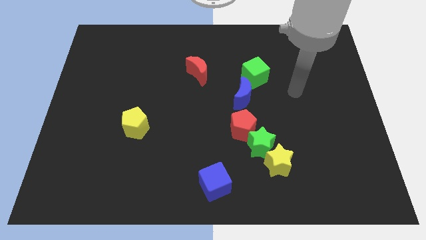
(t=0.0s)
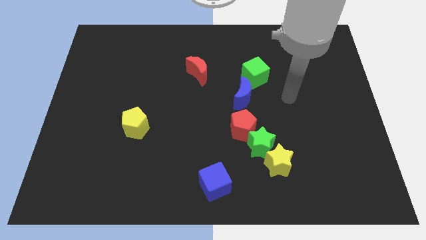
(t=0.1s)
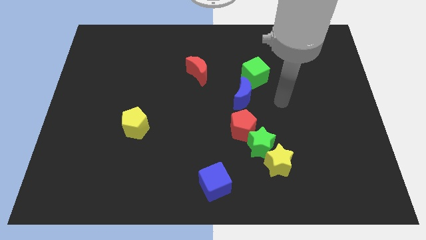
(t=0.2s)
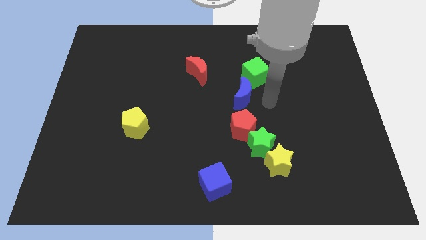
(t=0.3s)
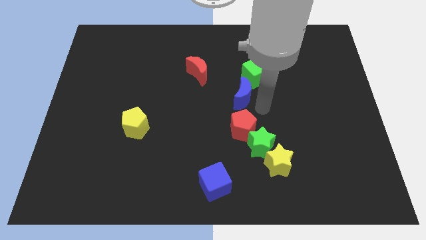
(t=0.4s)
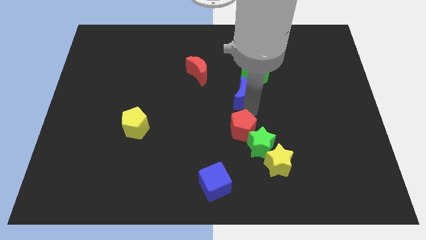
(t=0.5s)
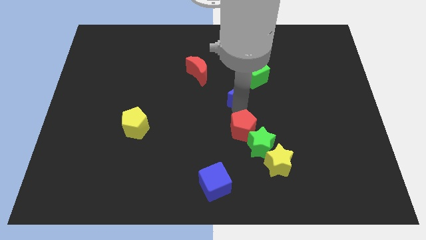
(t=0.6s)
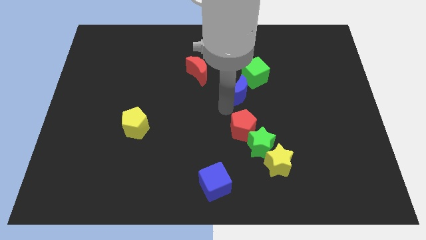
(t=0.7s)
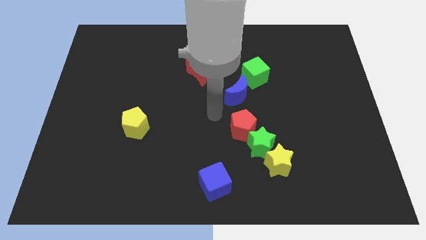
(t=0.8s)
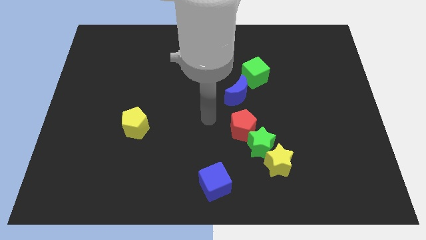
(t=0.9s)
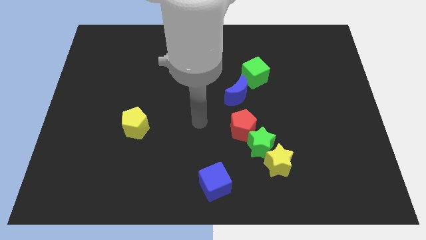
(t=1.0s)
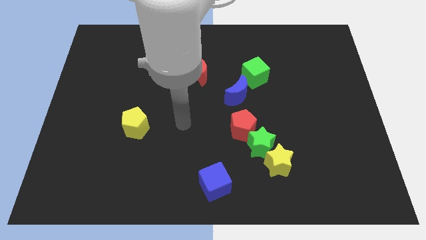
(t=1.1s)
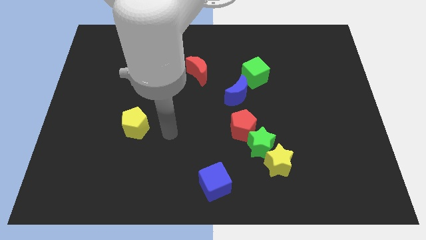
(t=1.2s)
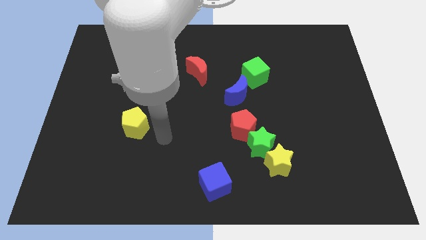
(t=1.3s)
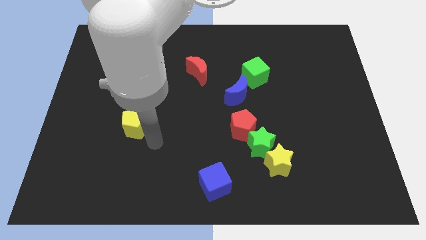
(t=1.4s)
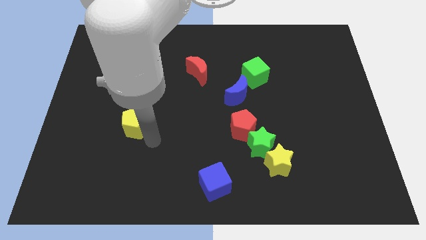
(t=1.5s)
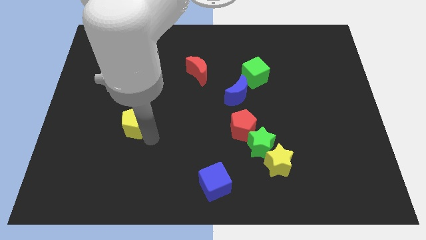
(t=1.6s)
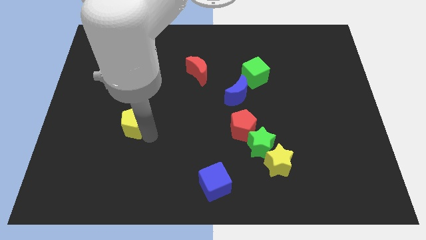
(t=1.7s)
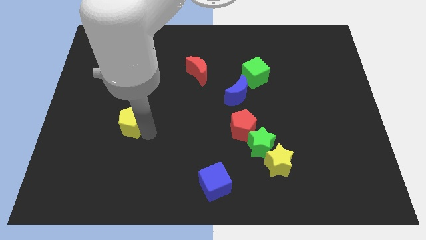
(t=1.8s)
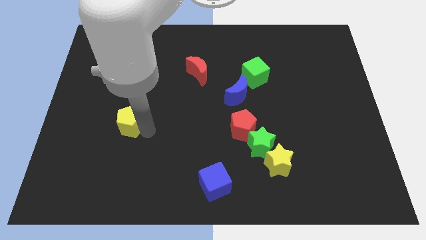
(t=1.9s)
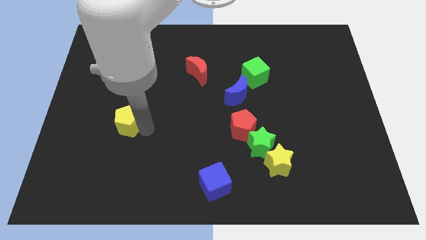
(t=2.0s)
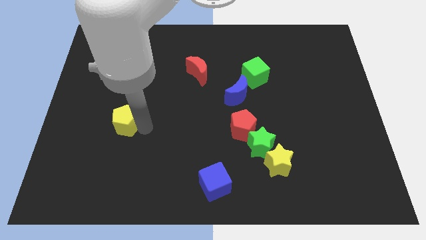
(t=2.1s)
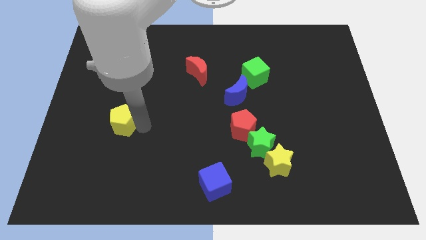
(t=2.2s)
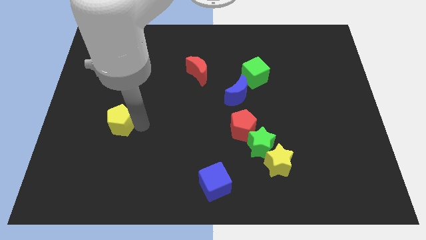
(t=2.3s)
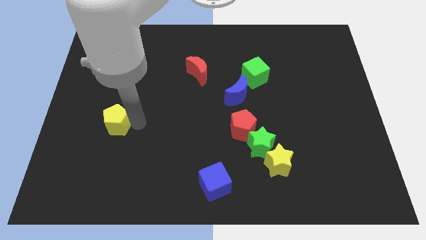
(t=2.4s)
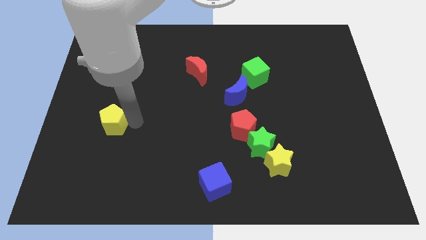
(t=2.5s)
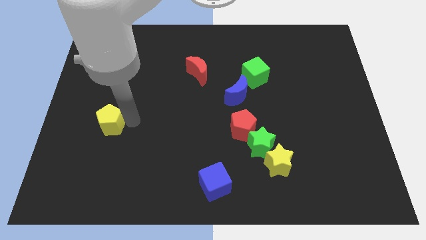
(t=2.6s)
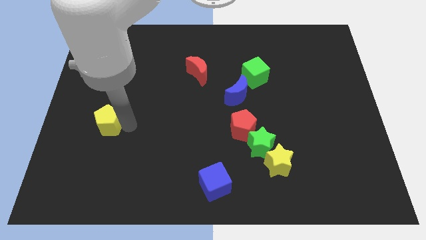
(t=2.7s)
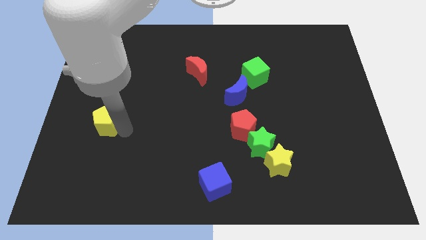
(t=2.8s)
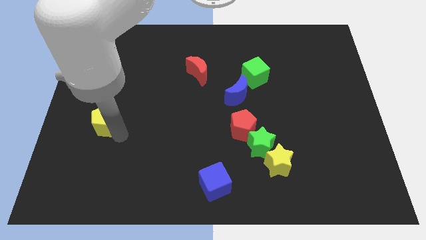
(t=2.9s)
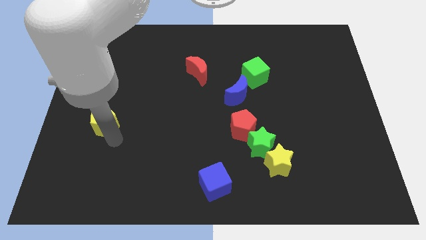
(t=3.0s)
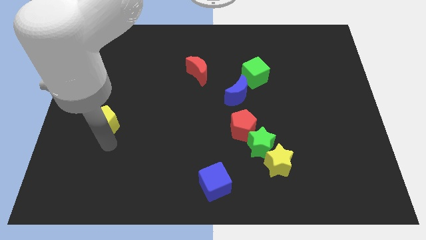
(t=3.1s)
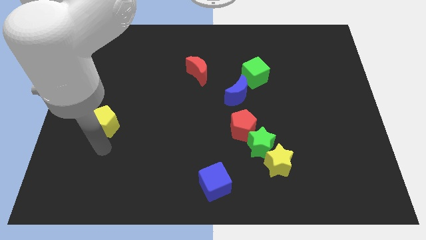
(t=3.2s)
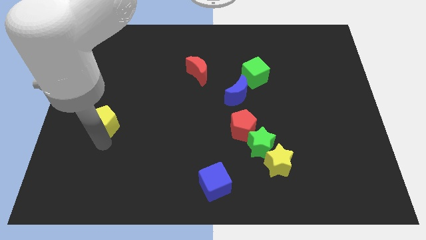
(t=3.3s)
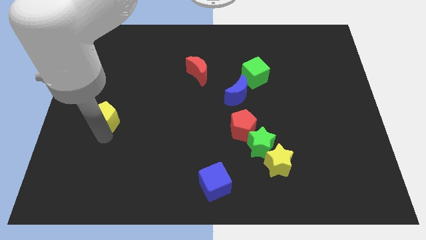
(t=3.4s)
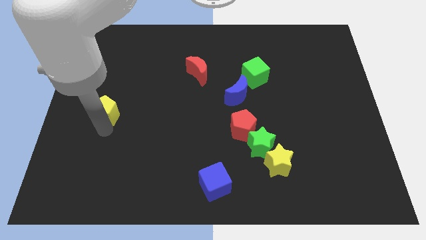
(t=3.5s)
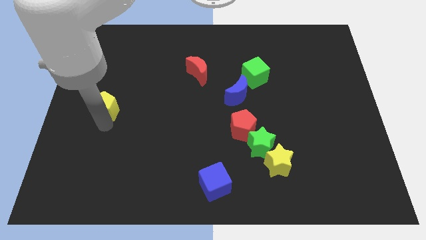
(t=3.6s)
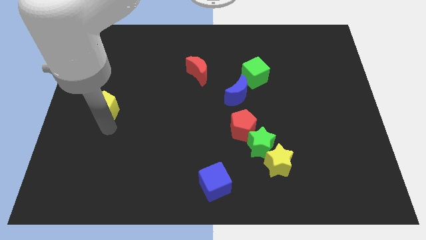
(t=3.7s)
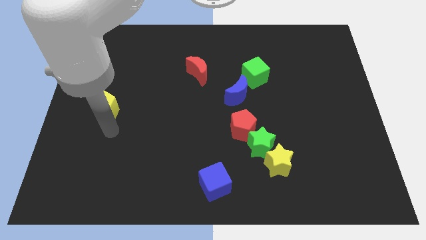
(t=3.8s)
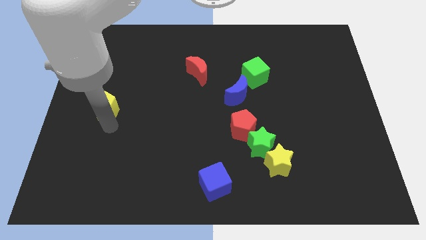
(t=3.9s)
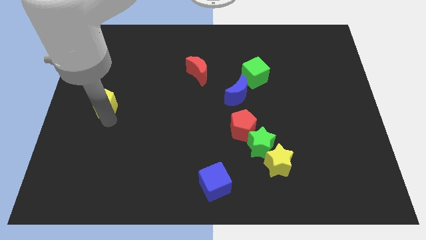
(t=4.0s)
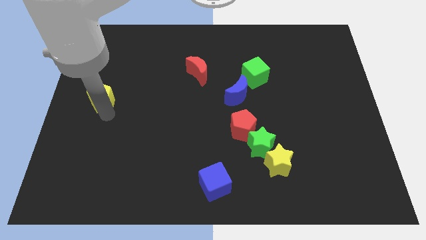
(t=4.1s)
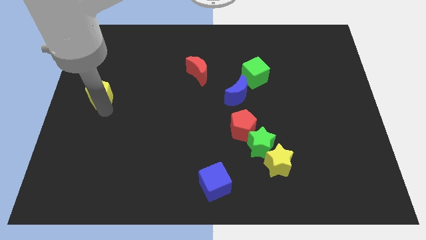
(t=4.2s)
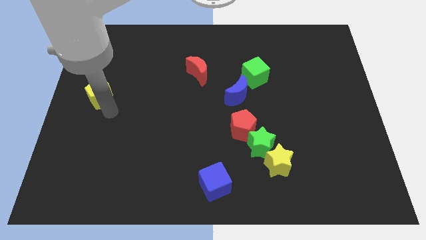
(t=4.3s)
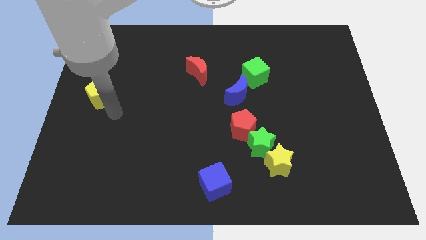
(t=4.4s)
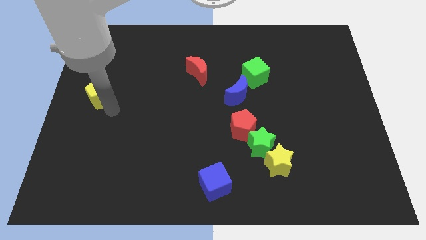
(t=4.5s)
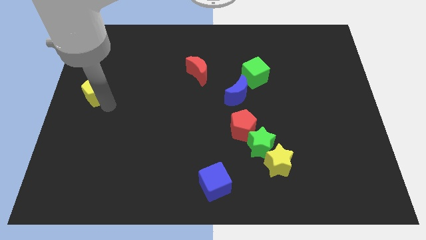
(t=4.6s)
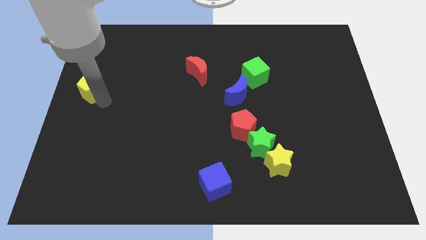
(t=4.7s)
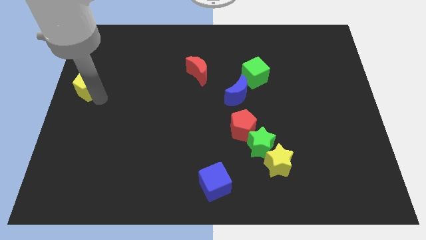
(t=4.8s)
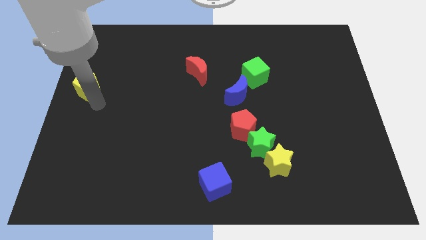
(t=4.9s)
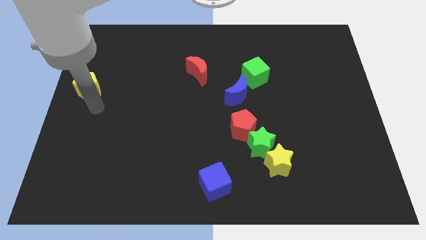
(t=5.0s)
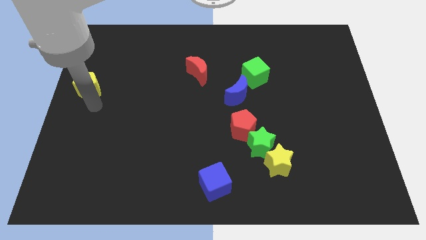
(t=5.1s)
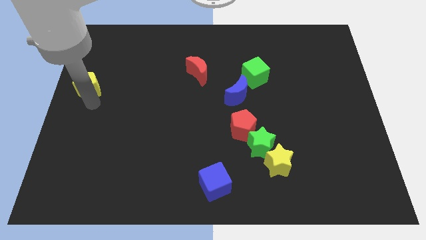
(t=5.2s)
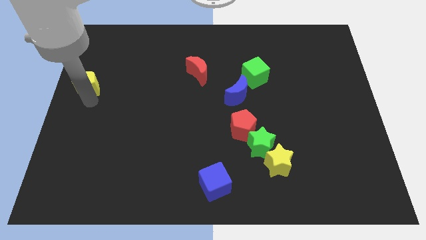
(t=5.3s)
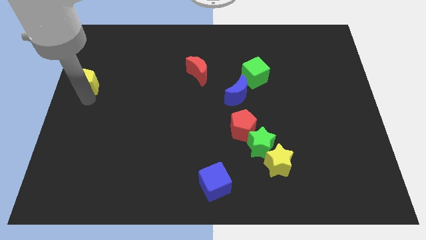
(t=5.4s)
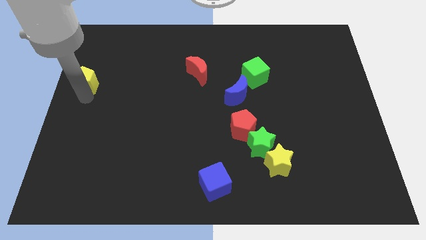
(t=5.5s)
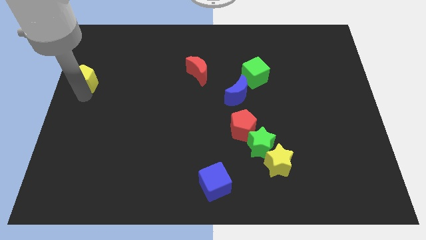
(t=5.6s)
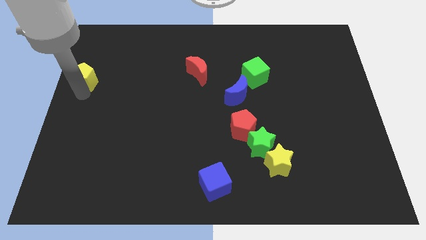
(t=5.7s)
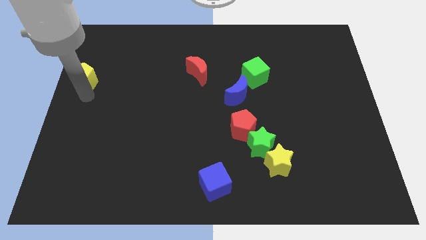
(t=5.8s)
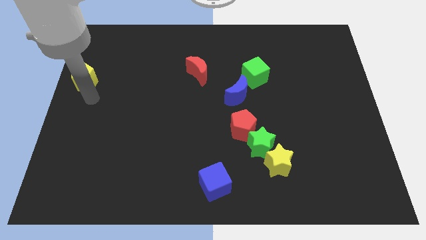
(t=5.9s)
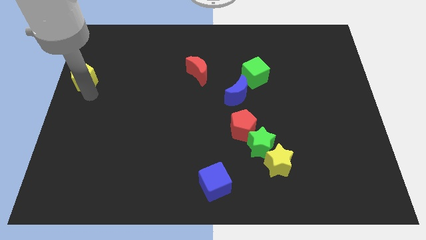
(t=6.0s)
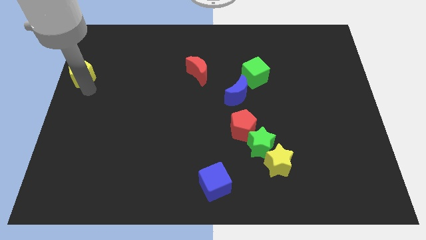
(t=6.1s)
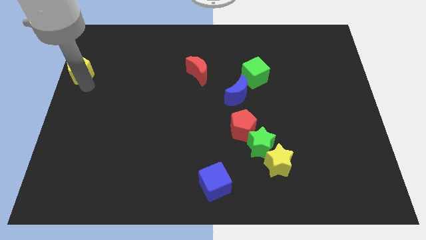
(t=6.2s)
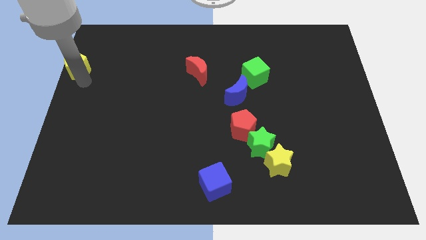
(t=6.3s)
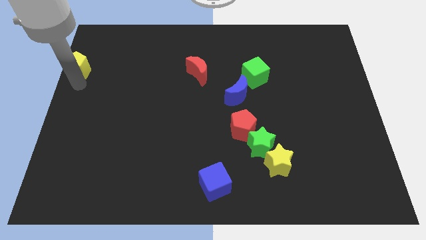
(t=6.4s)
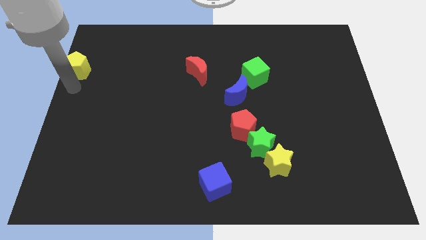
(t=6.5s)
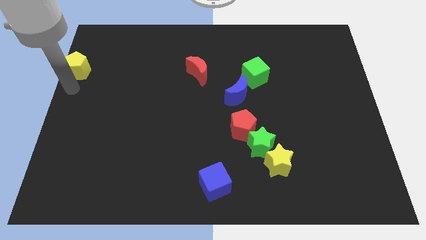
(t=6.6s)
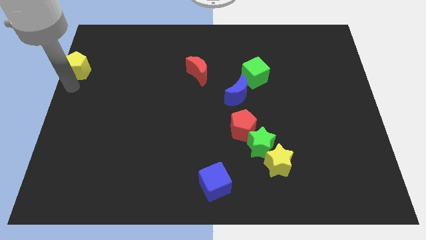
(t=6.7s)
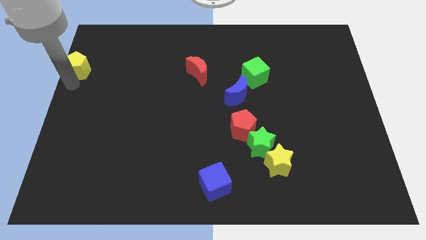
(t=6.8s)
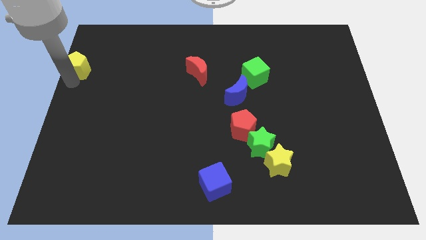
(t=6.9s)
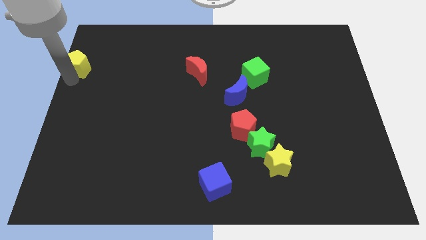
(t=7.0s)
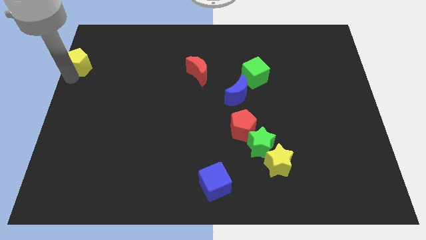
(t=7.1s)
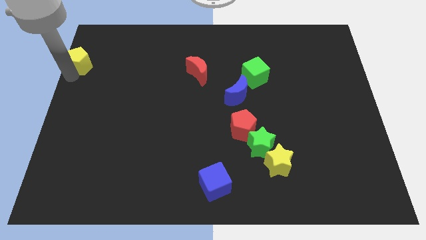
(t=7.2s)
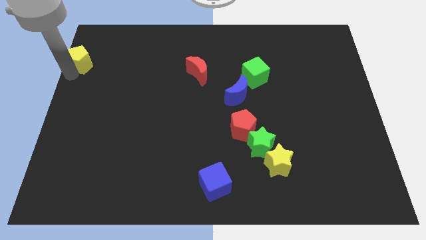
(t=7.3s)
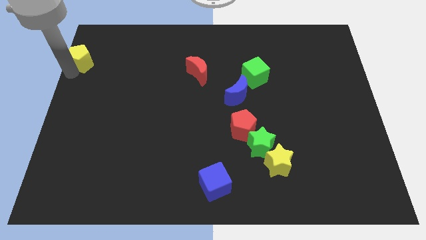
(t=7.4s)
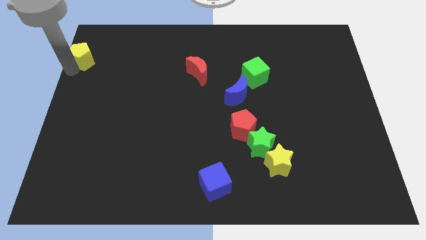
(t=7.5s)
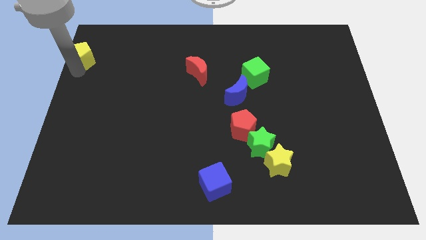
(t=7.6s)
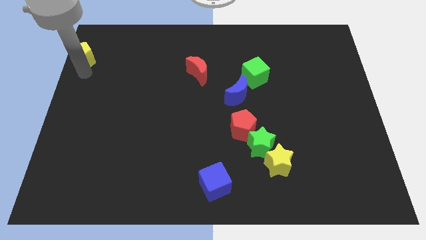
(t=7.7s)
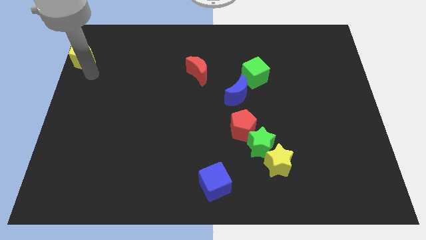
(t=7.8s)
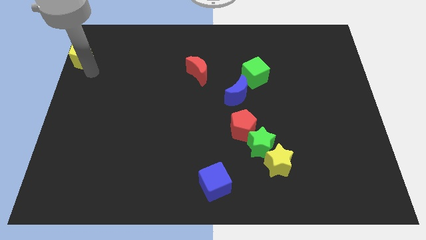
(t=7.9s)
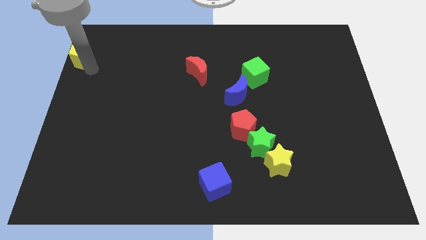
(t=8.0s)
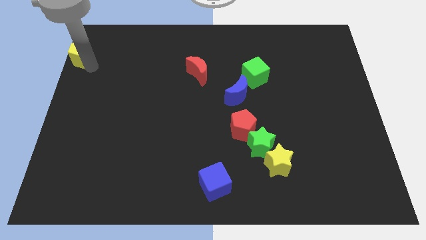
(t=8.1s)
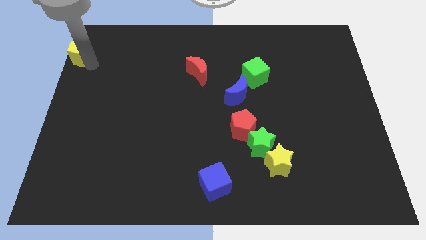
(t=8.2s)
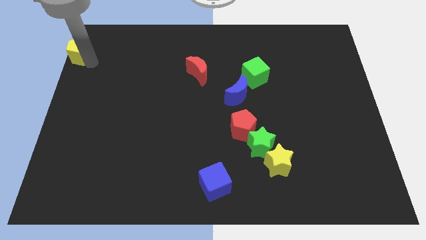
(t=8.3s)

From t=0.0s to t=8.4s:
slide the yellow pentagon to the upper left corner
